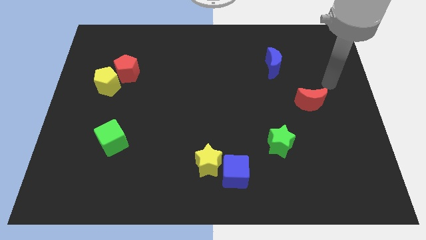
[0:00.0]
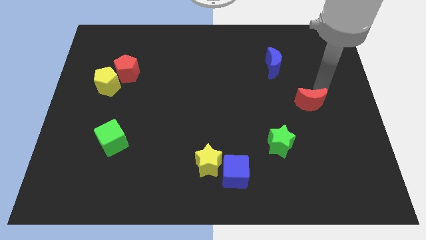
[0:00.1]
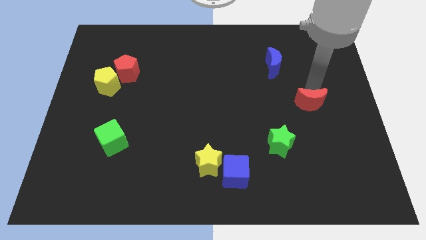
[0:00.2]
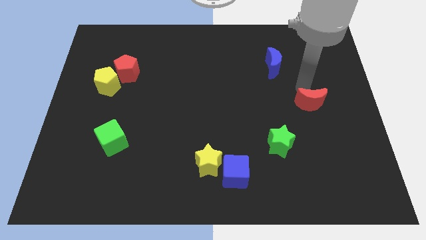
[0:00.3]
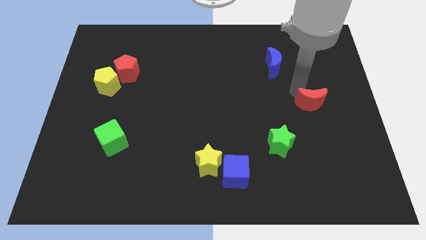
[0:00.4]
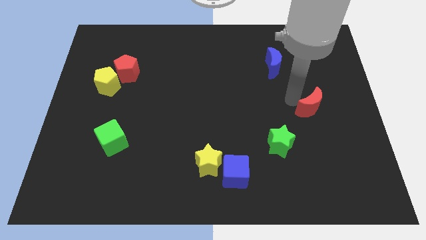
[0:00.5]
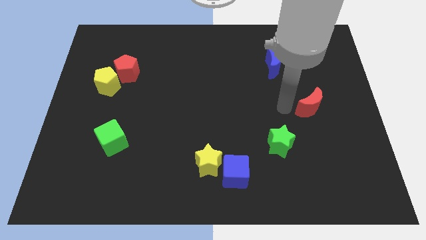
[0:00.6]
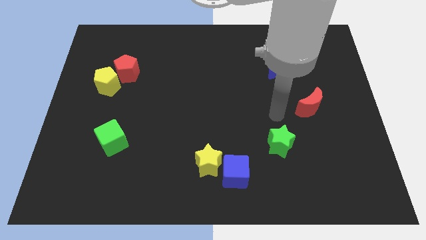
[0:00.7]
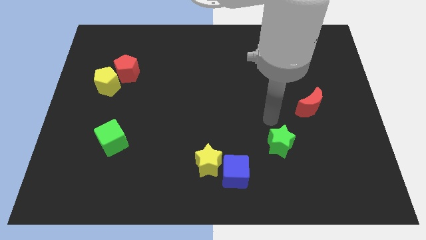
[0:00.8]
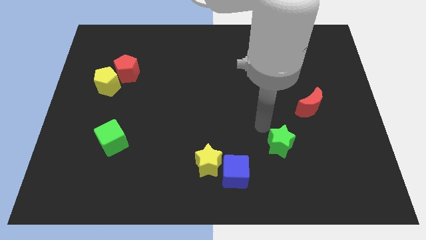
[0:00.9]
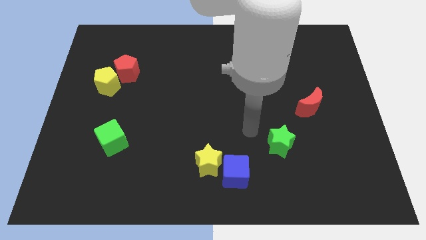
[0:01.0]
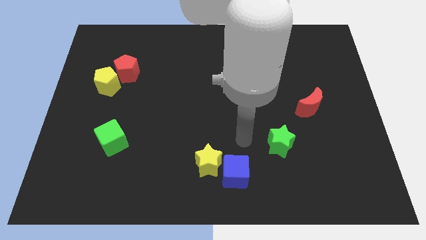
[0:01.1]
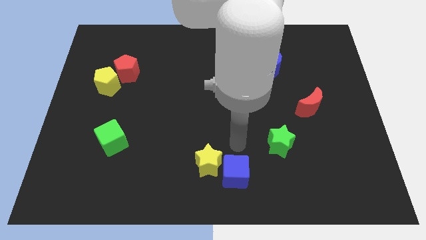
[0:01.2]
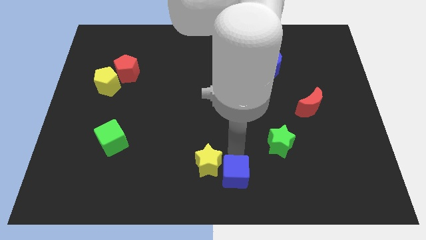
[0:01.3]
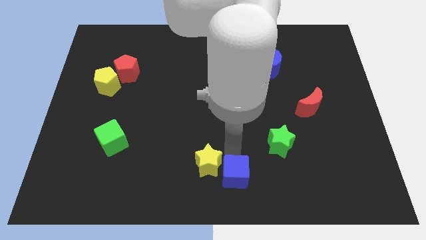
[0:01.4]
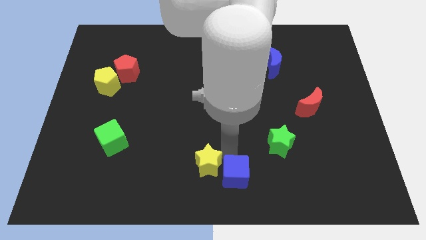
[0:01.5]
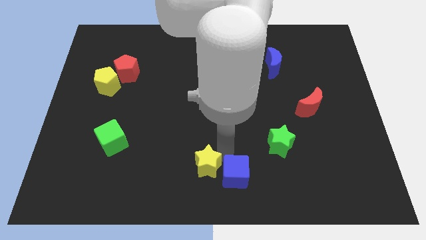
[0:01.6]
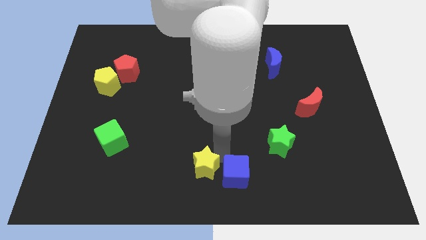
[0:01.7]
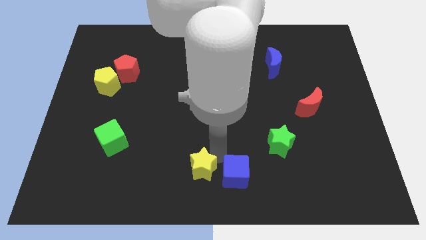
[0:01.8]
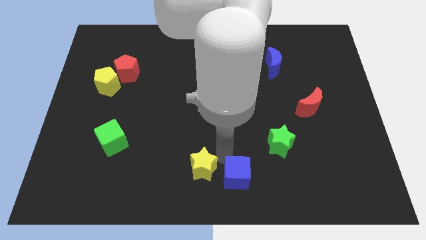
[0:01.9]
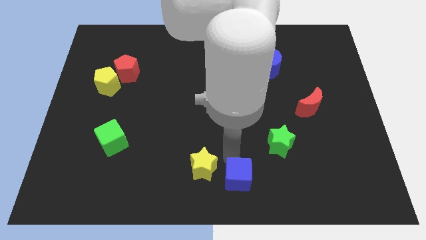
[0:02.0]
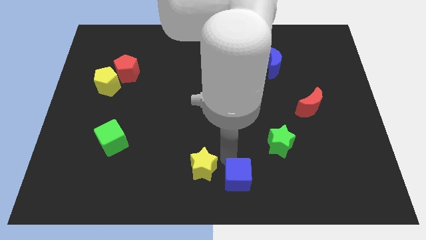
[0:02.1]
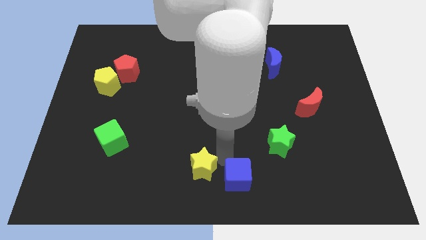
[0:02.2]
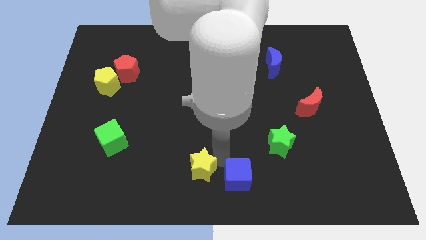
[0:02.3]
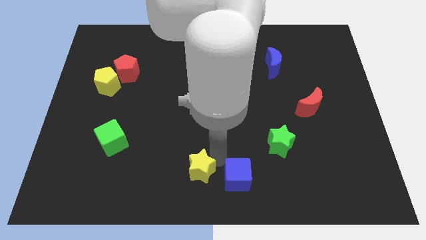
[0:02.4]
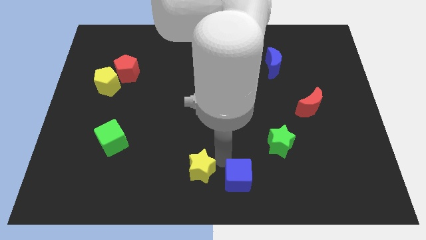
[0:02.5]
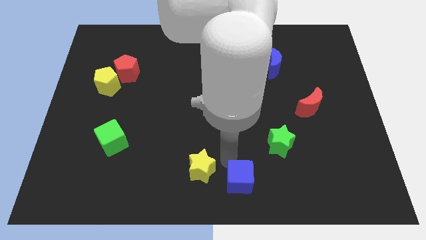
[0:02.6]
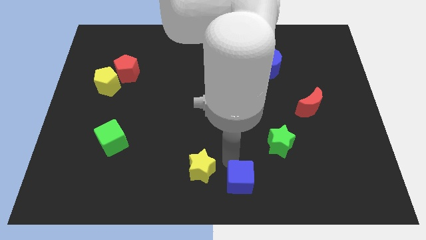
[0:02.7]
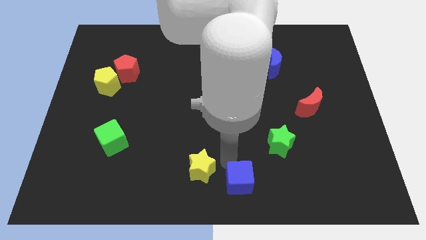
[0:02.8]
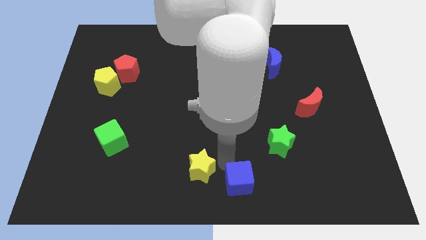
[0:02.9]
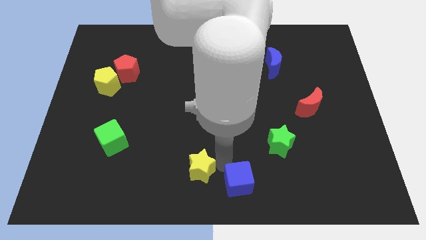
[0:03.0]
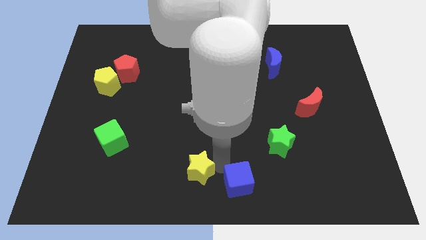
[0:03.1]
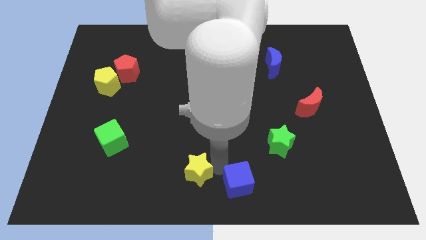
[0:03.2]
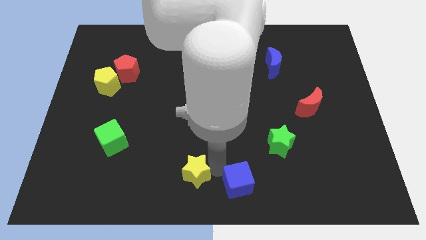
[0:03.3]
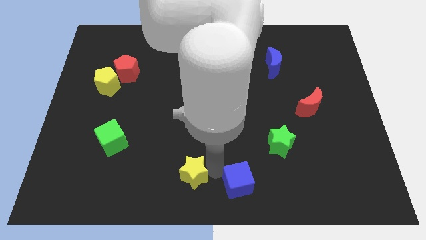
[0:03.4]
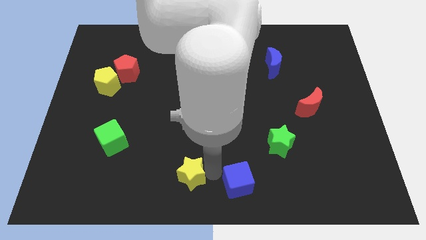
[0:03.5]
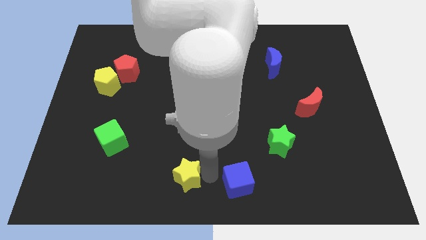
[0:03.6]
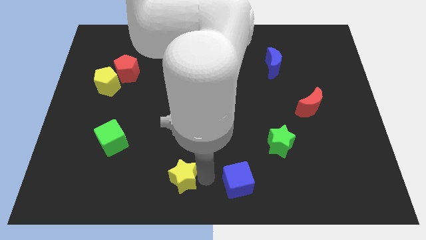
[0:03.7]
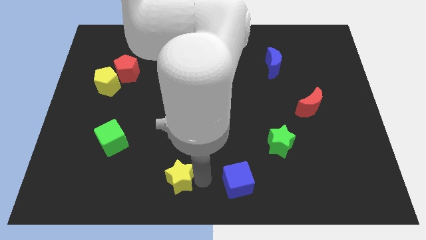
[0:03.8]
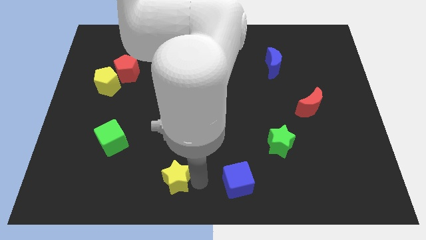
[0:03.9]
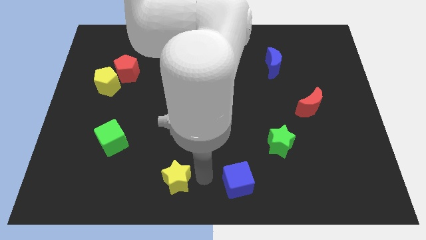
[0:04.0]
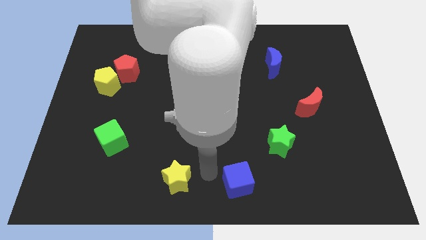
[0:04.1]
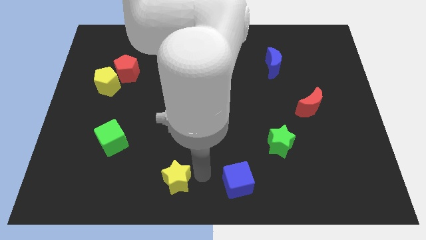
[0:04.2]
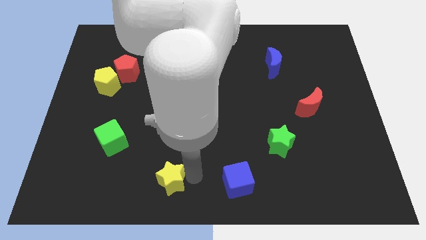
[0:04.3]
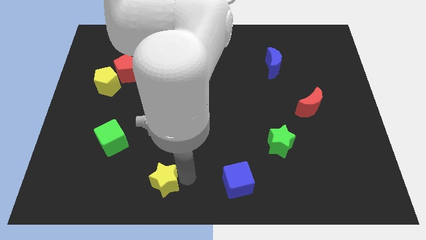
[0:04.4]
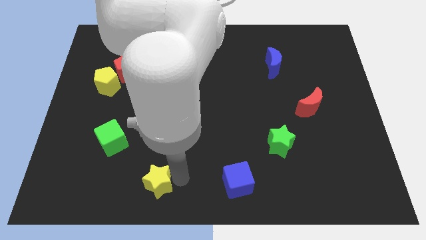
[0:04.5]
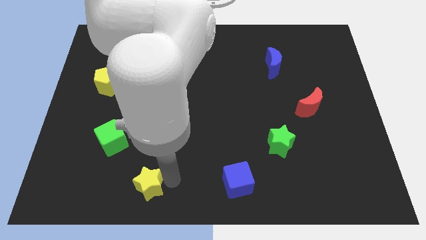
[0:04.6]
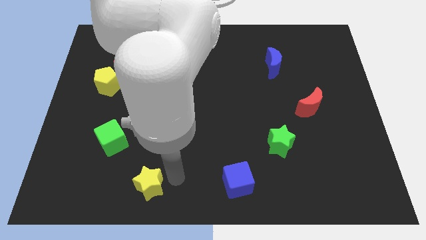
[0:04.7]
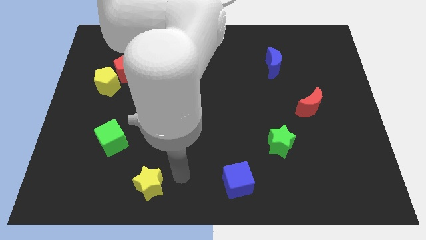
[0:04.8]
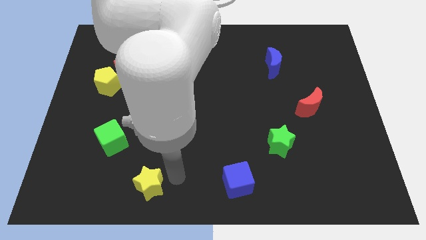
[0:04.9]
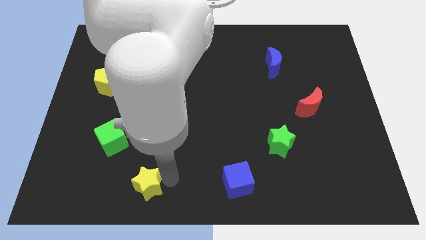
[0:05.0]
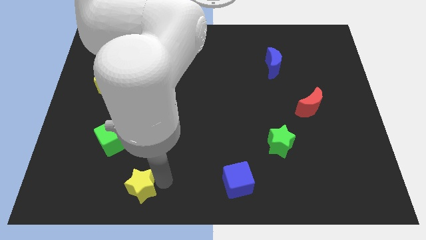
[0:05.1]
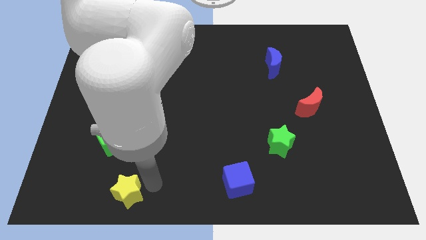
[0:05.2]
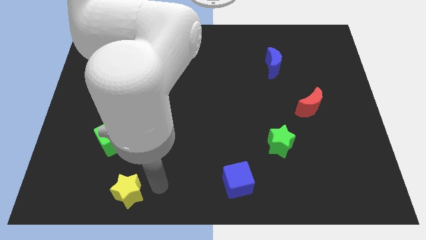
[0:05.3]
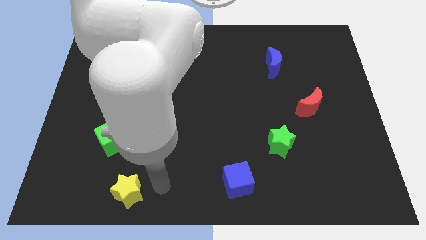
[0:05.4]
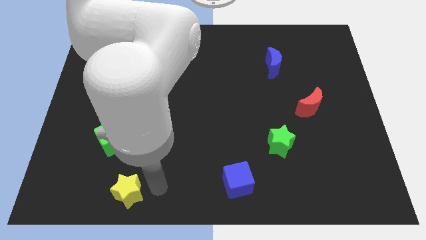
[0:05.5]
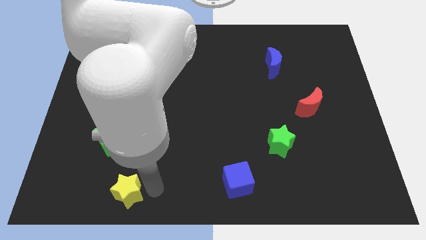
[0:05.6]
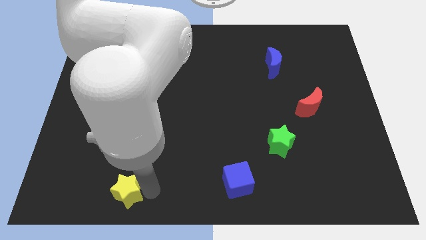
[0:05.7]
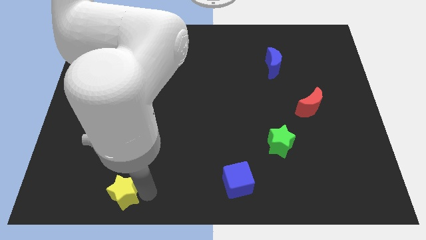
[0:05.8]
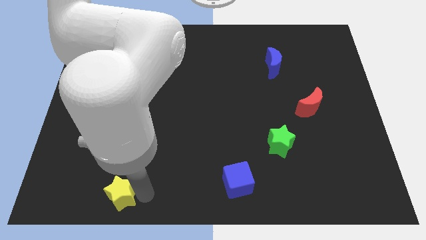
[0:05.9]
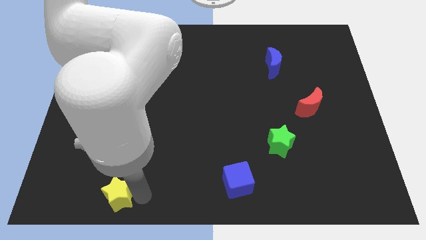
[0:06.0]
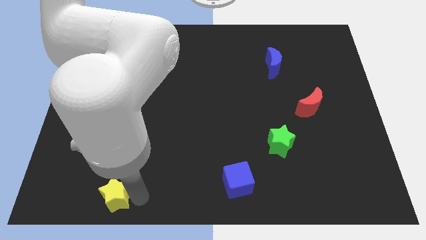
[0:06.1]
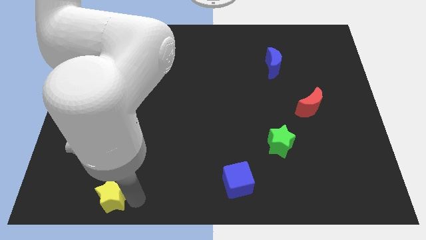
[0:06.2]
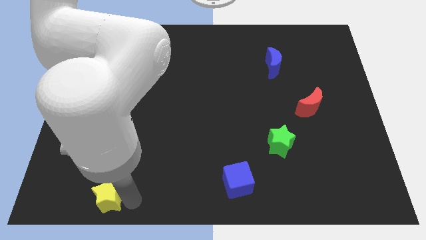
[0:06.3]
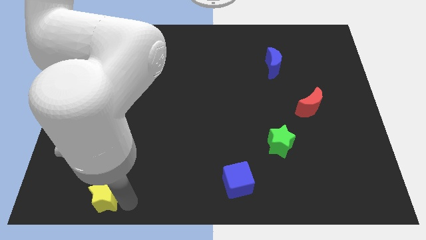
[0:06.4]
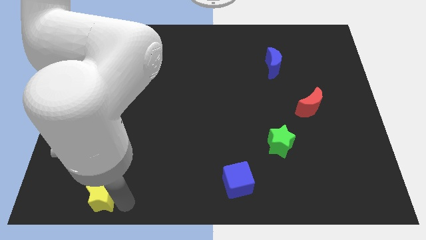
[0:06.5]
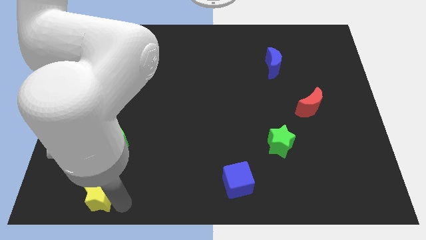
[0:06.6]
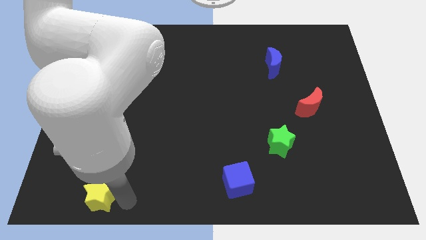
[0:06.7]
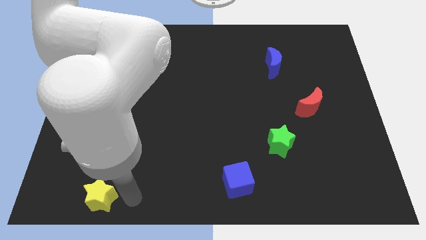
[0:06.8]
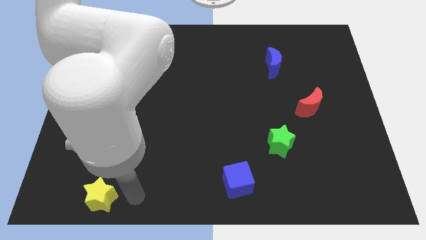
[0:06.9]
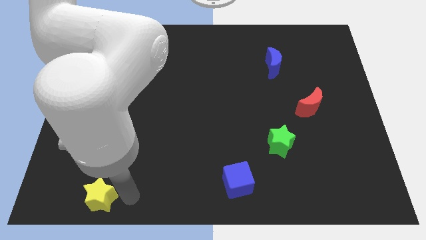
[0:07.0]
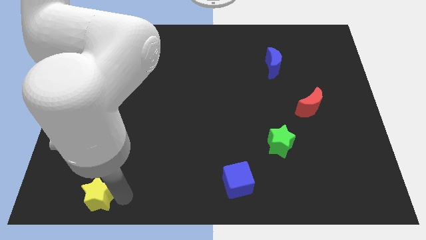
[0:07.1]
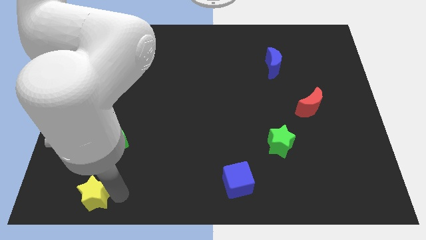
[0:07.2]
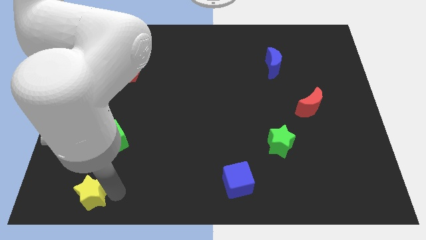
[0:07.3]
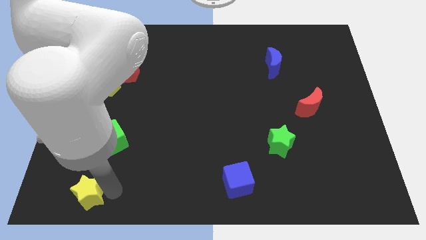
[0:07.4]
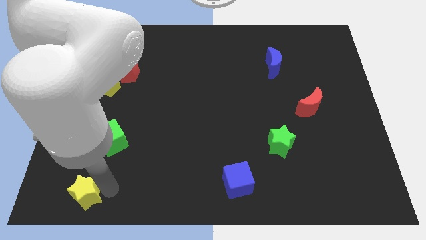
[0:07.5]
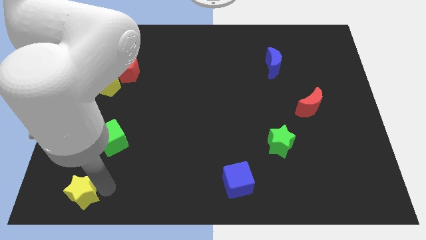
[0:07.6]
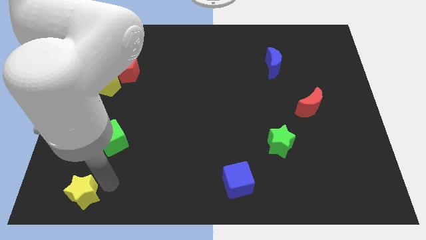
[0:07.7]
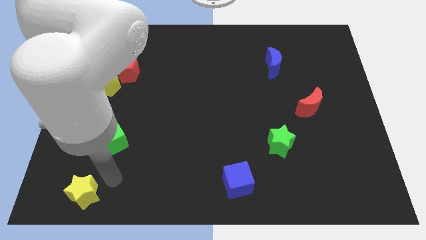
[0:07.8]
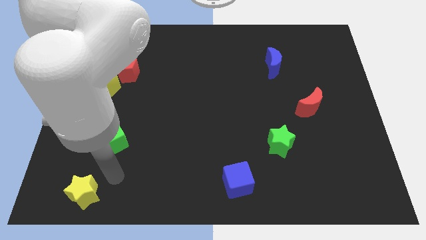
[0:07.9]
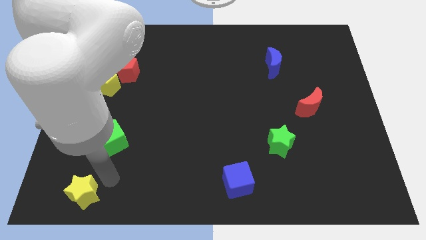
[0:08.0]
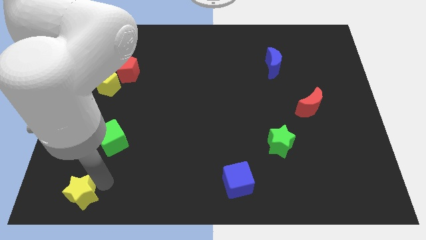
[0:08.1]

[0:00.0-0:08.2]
slide the yellow star to the bottom left corner
